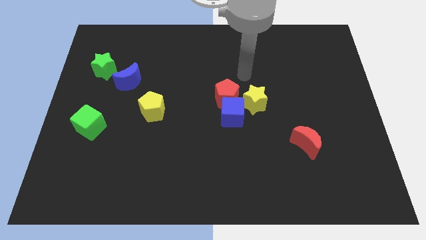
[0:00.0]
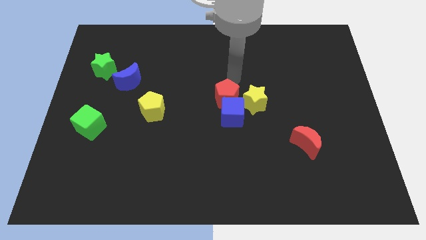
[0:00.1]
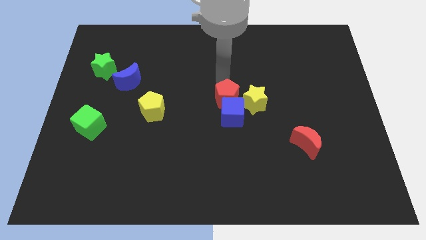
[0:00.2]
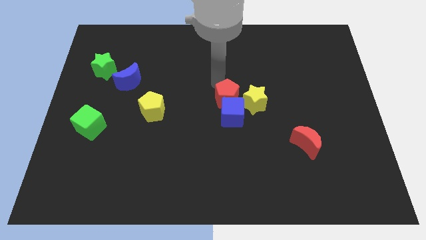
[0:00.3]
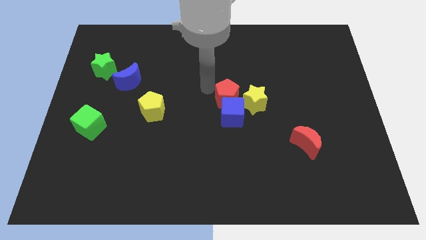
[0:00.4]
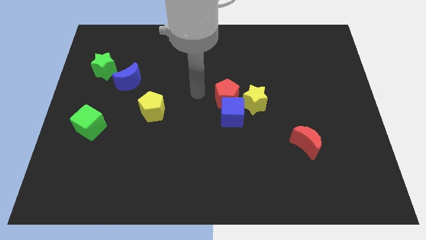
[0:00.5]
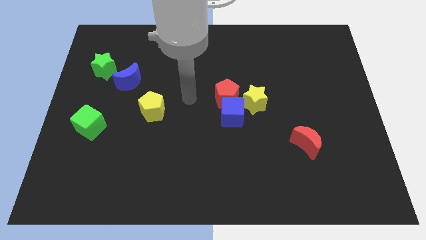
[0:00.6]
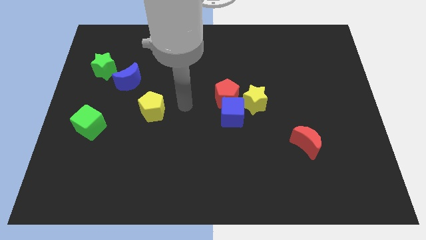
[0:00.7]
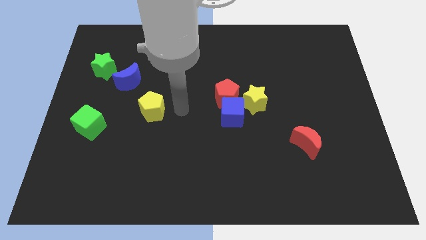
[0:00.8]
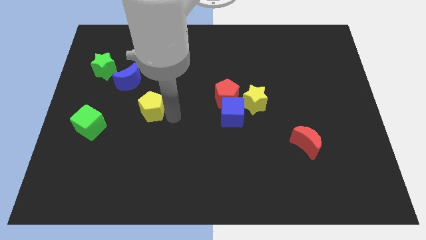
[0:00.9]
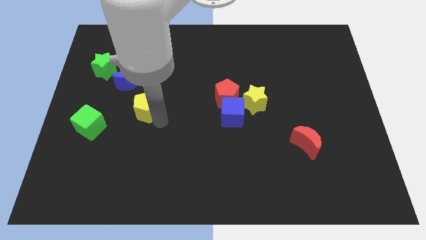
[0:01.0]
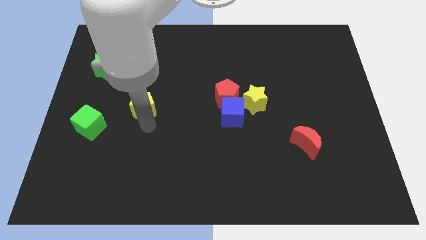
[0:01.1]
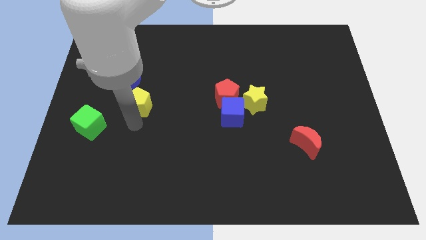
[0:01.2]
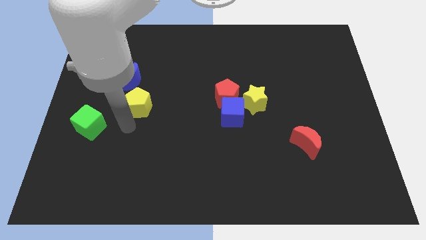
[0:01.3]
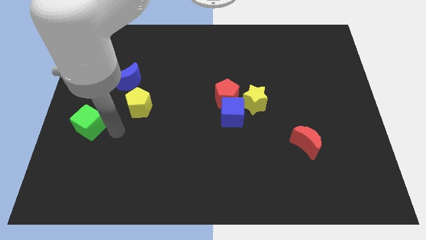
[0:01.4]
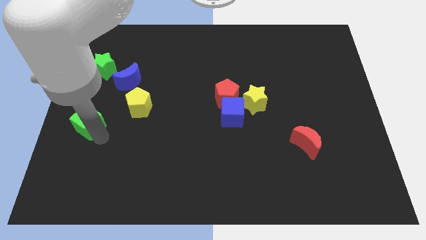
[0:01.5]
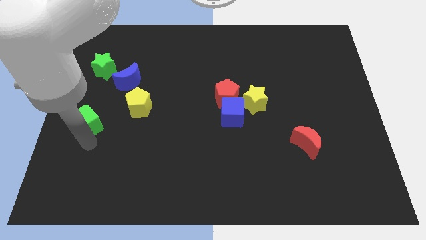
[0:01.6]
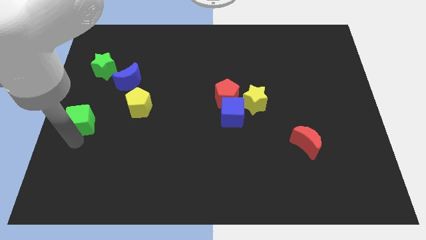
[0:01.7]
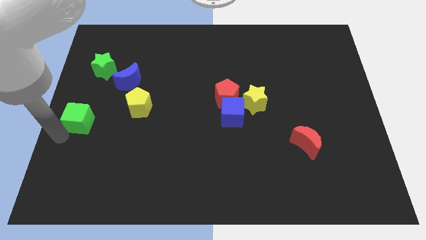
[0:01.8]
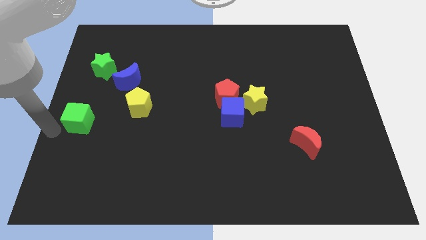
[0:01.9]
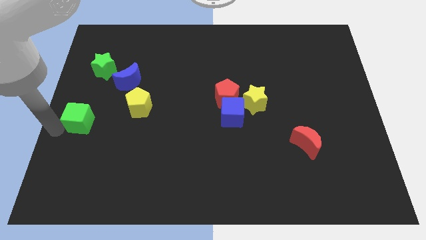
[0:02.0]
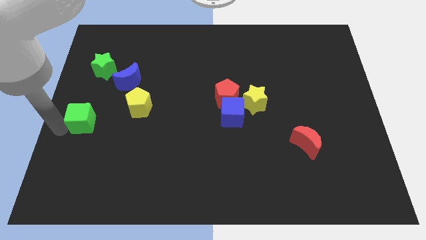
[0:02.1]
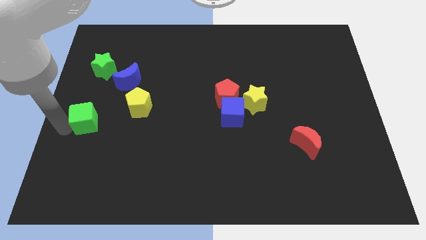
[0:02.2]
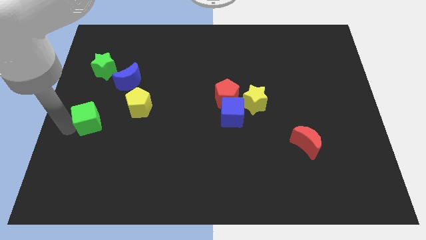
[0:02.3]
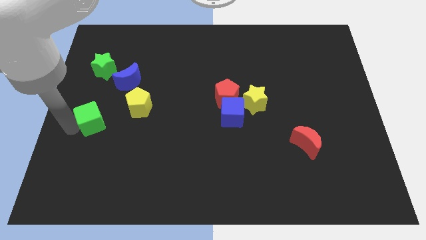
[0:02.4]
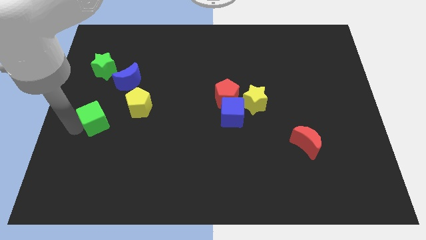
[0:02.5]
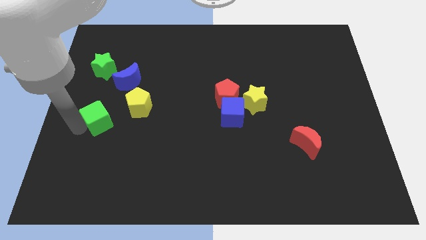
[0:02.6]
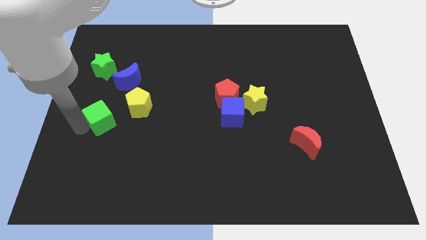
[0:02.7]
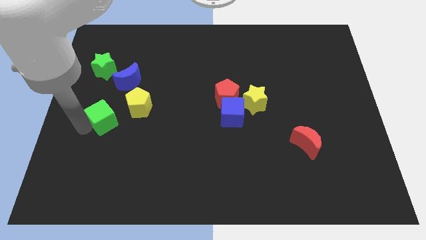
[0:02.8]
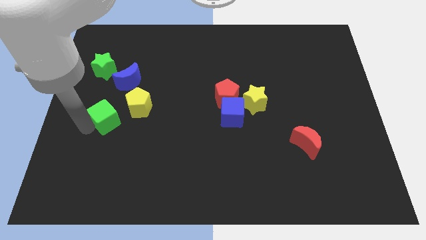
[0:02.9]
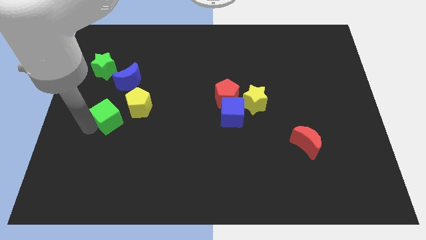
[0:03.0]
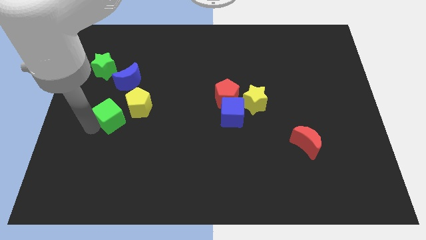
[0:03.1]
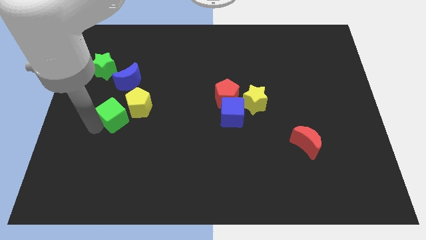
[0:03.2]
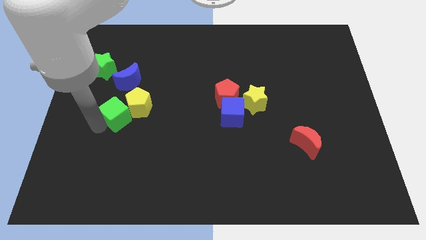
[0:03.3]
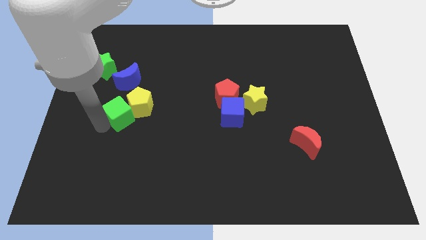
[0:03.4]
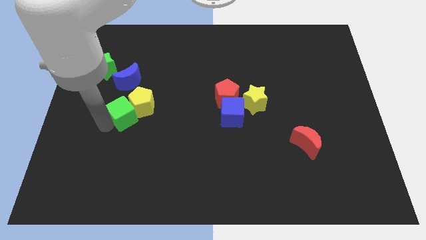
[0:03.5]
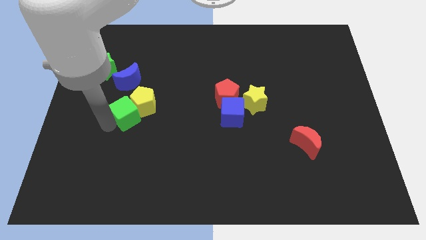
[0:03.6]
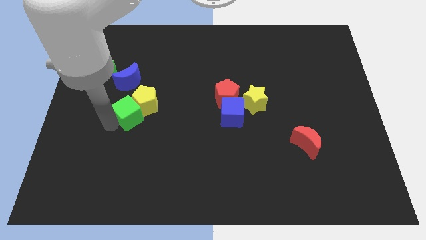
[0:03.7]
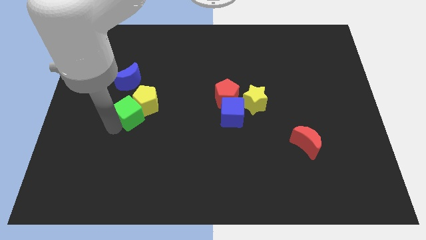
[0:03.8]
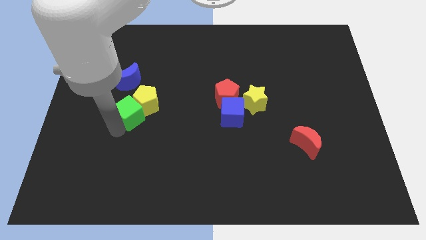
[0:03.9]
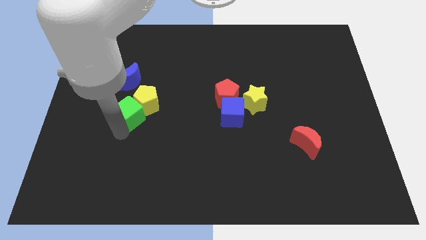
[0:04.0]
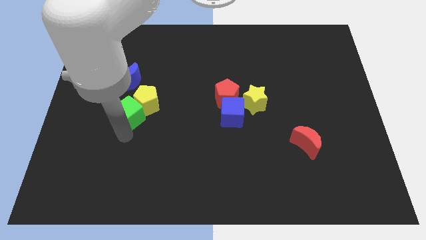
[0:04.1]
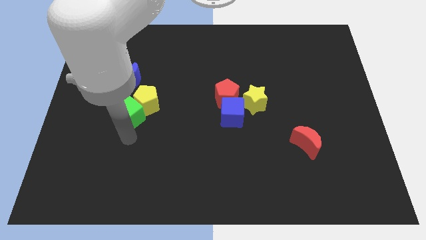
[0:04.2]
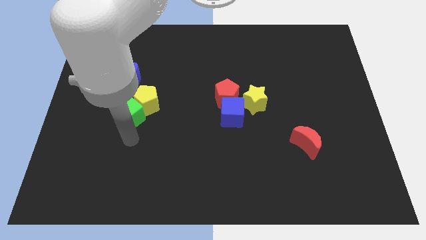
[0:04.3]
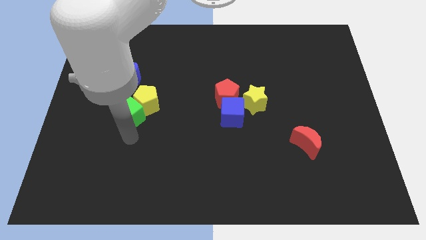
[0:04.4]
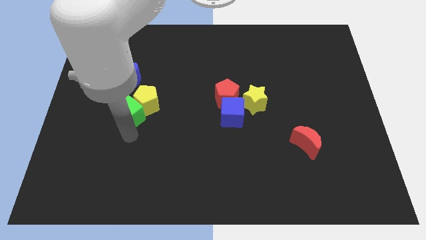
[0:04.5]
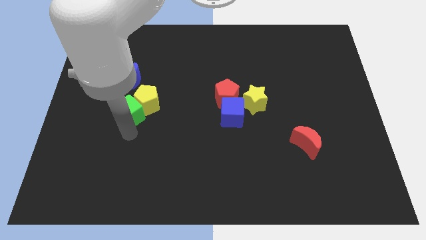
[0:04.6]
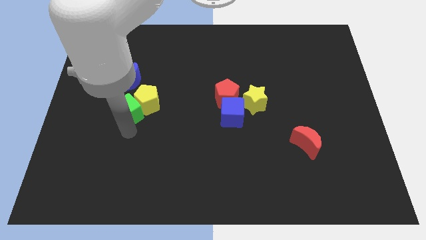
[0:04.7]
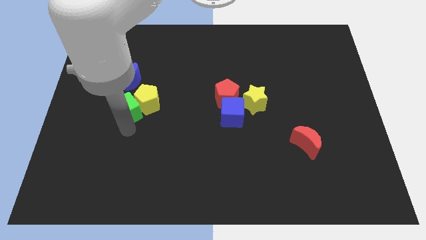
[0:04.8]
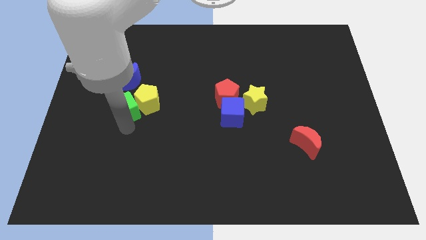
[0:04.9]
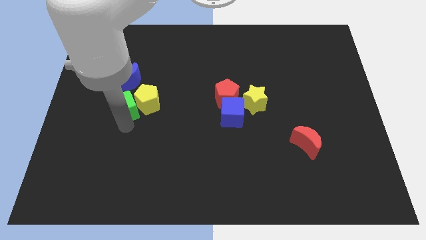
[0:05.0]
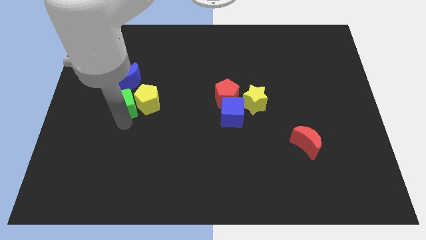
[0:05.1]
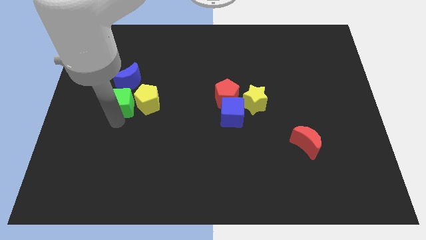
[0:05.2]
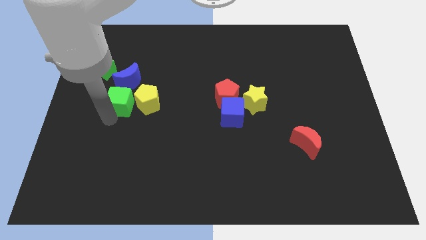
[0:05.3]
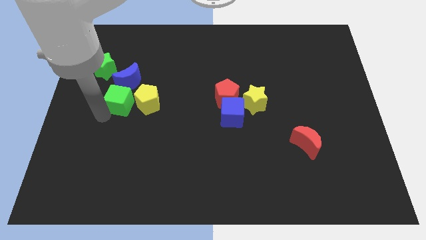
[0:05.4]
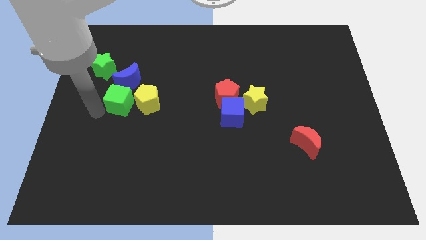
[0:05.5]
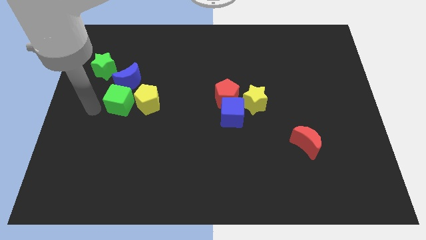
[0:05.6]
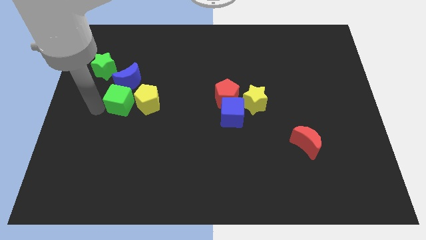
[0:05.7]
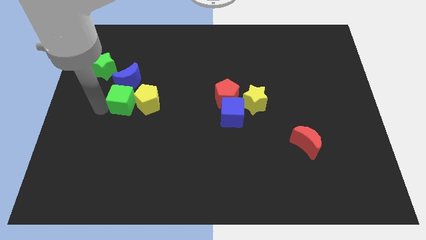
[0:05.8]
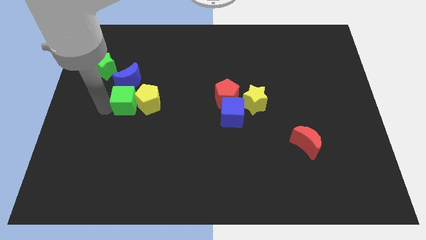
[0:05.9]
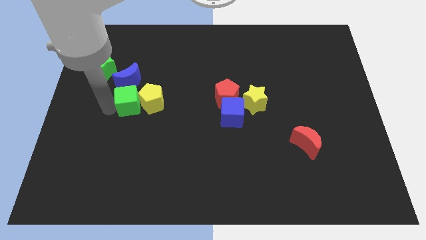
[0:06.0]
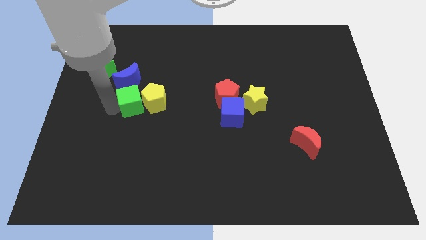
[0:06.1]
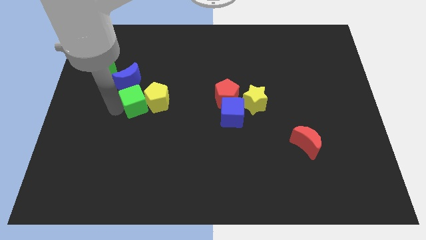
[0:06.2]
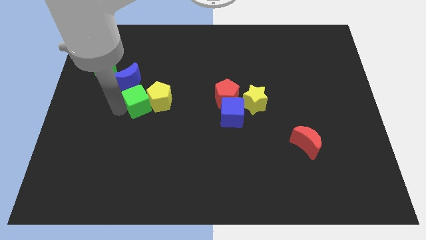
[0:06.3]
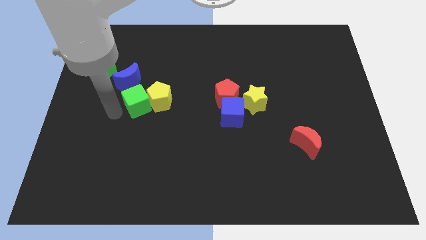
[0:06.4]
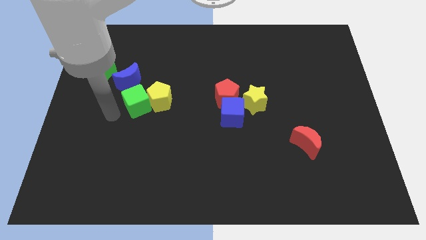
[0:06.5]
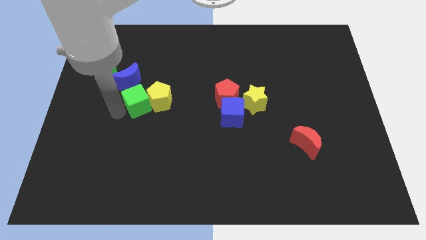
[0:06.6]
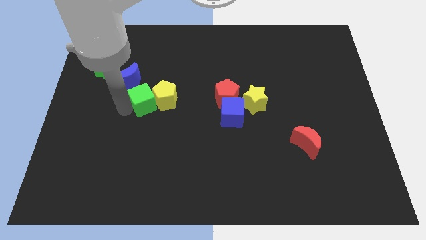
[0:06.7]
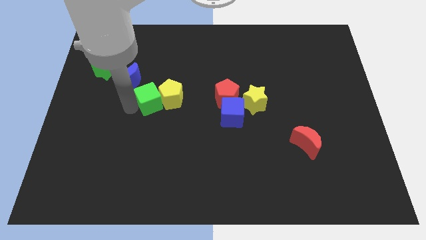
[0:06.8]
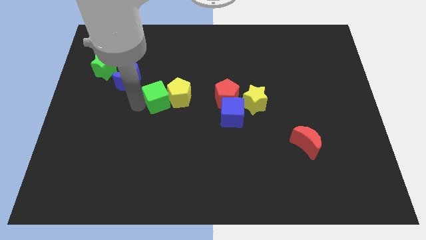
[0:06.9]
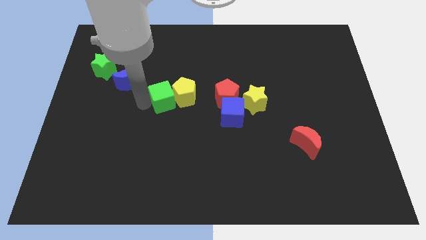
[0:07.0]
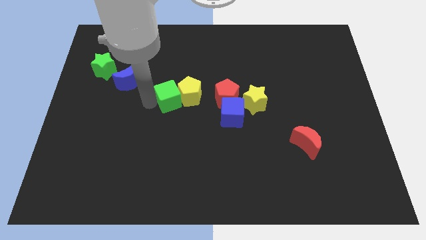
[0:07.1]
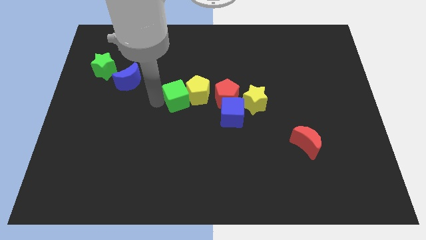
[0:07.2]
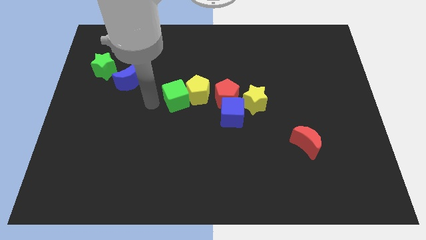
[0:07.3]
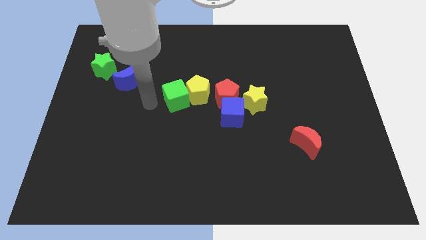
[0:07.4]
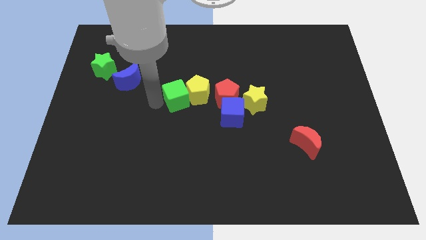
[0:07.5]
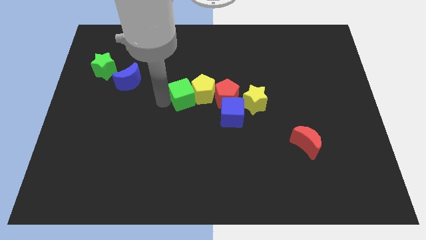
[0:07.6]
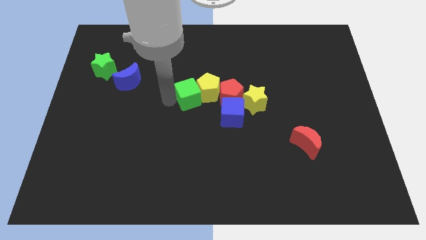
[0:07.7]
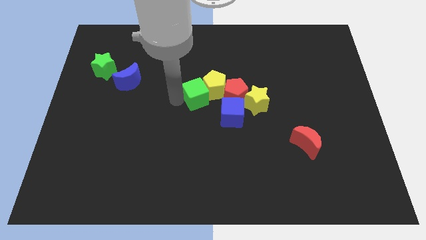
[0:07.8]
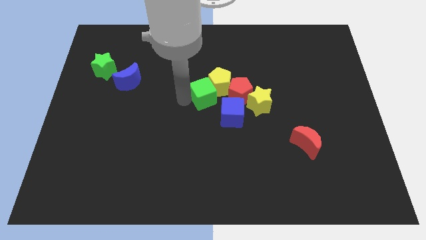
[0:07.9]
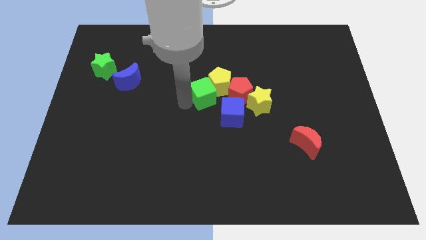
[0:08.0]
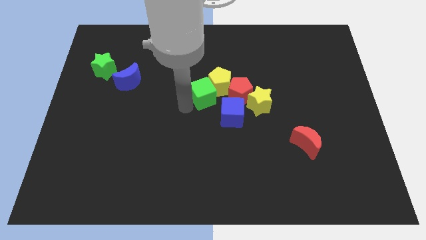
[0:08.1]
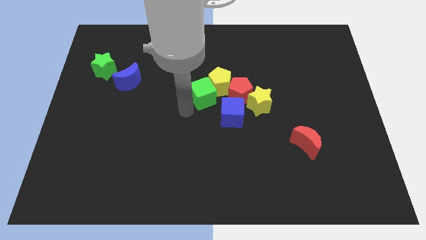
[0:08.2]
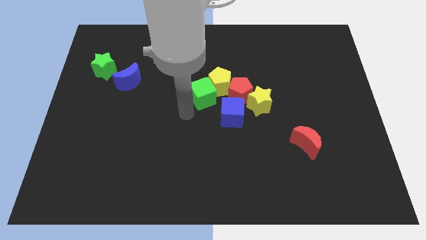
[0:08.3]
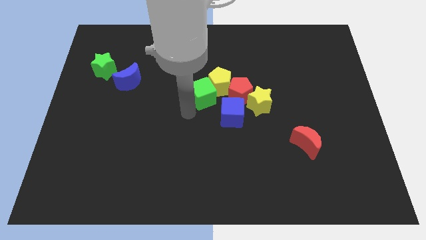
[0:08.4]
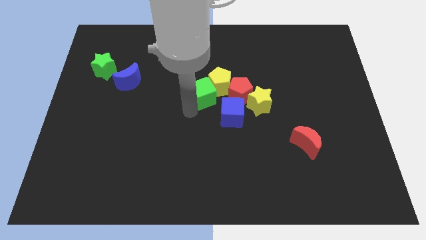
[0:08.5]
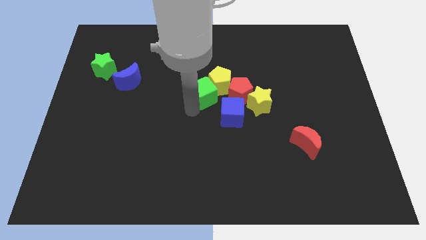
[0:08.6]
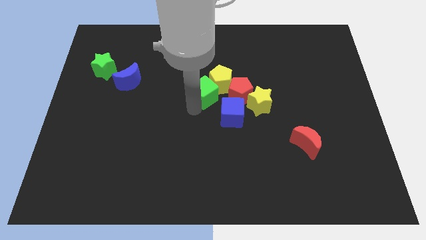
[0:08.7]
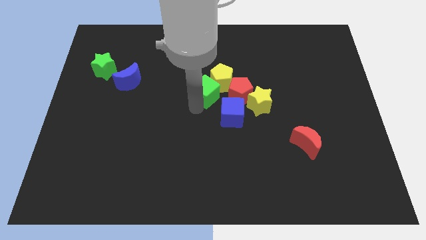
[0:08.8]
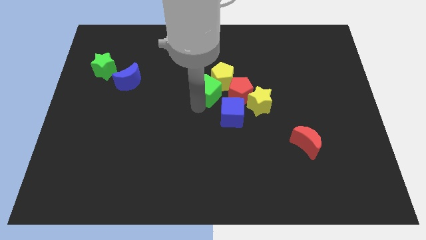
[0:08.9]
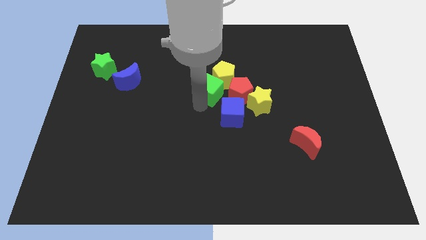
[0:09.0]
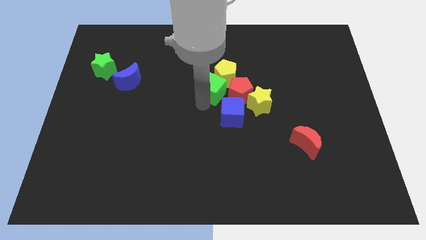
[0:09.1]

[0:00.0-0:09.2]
put the green cube to the top of the blue cube
